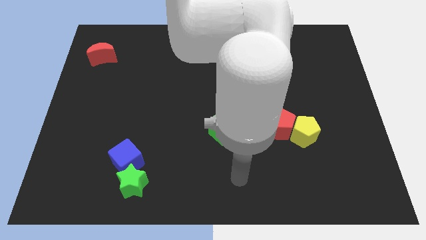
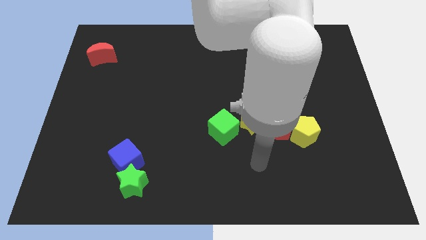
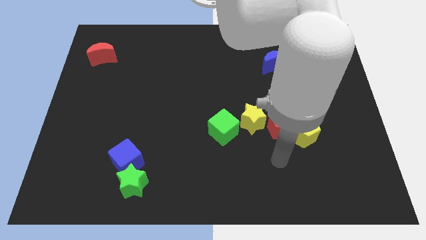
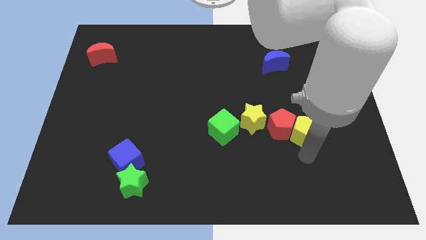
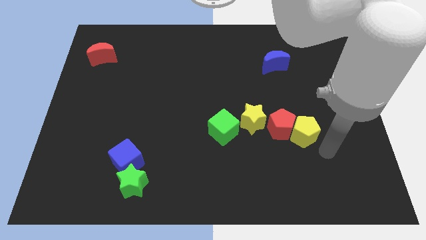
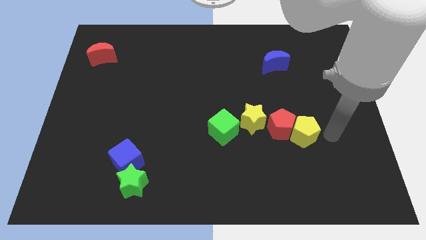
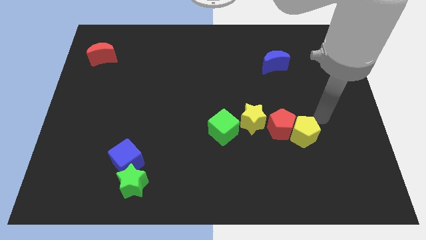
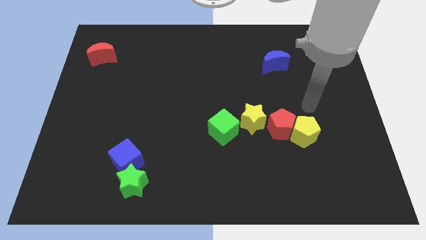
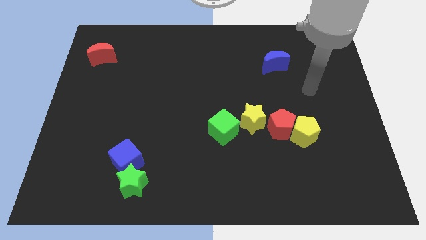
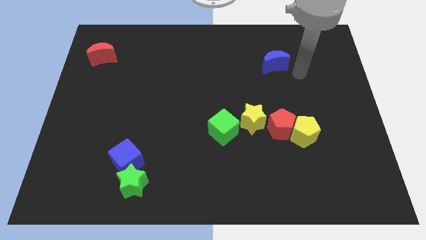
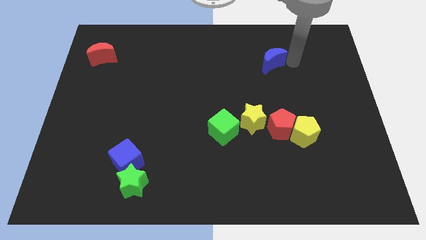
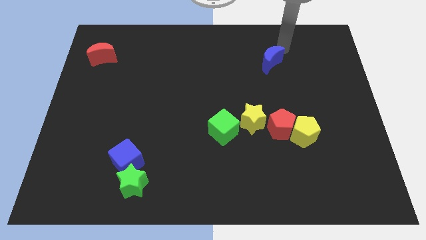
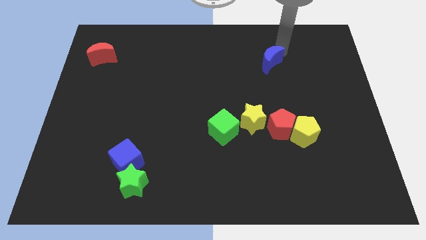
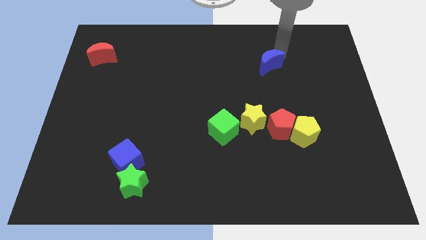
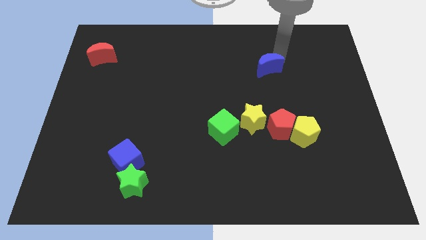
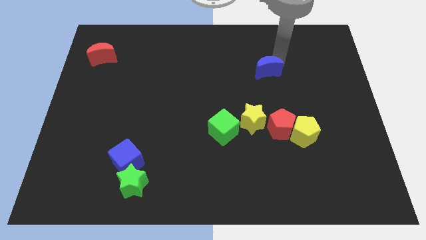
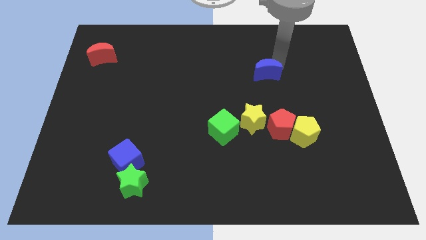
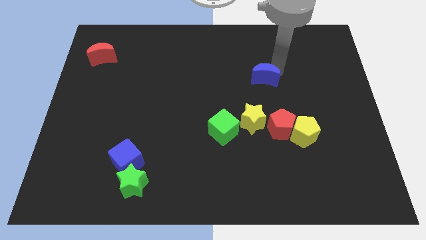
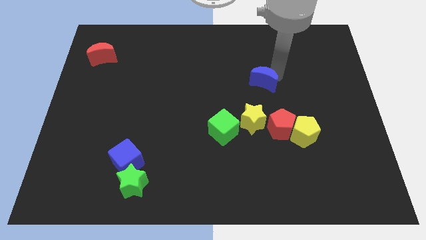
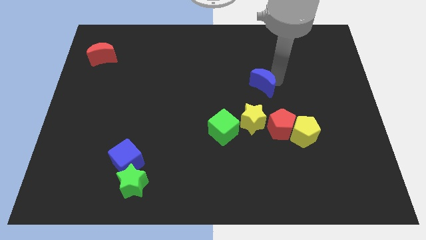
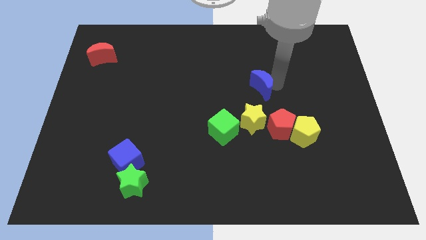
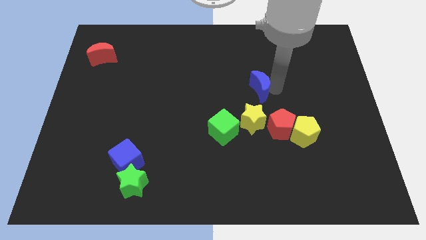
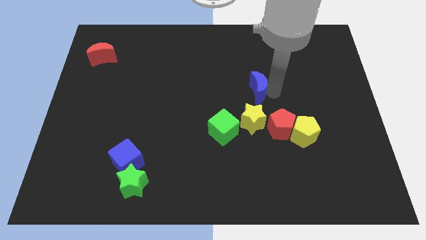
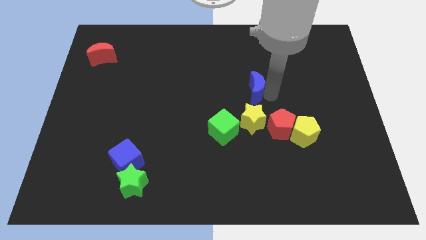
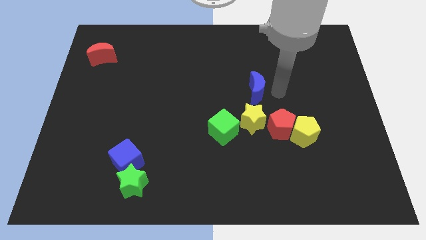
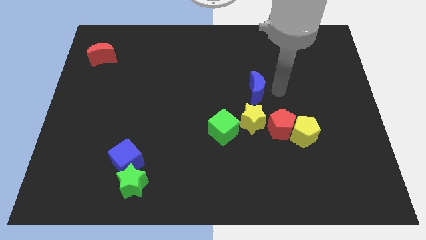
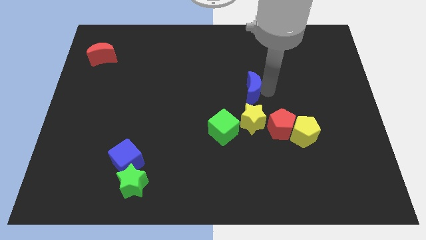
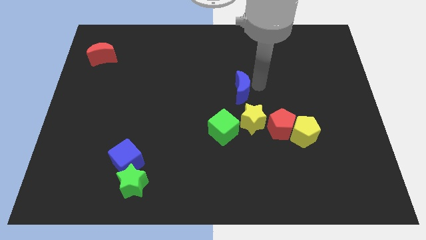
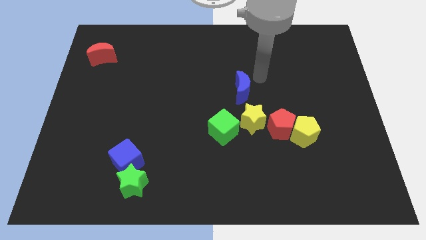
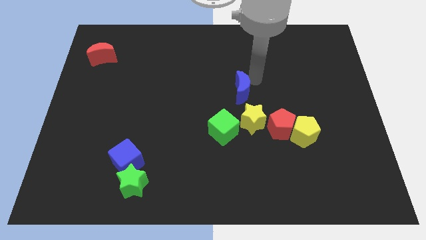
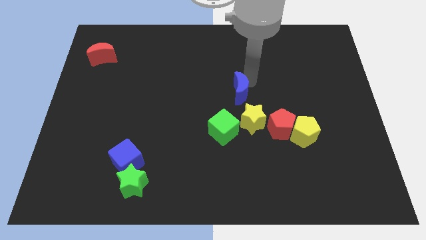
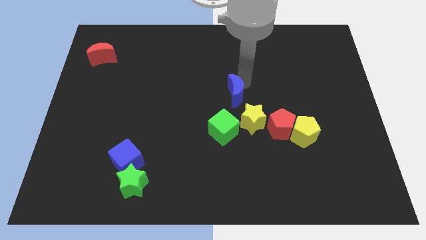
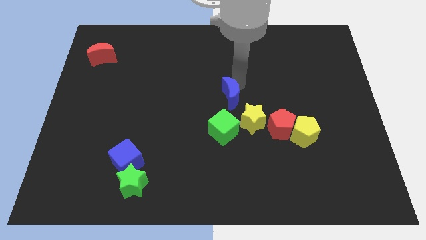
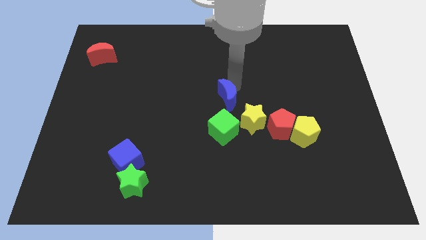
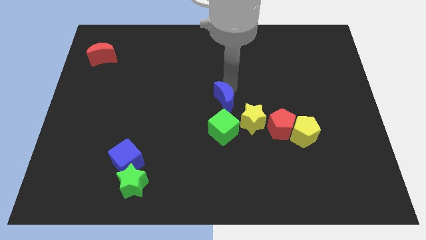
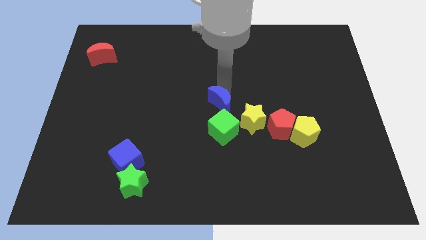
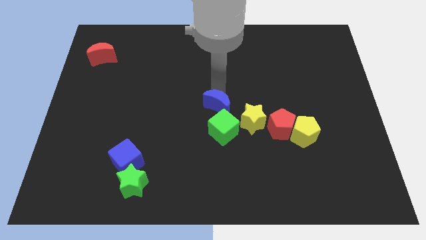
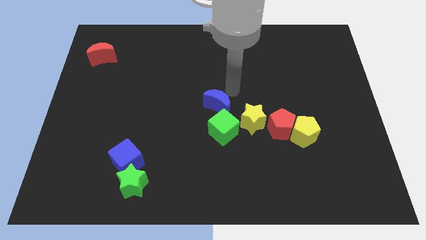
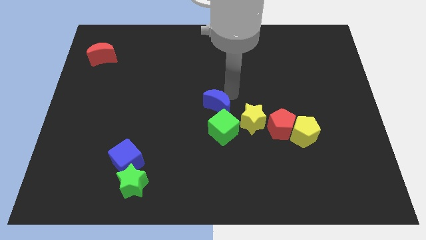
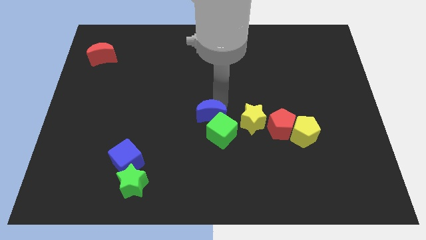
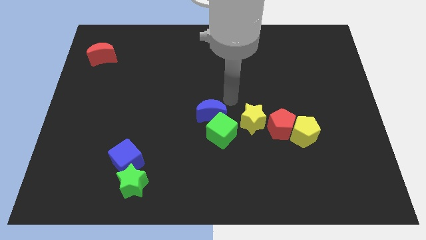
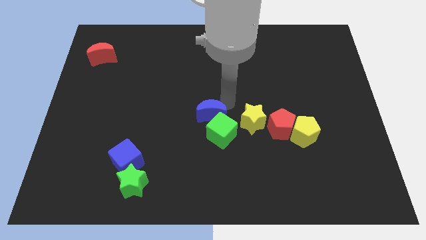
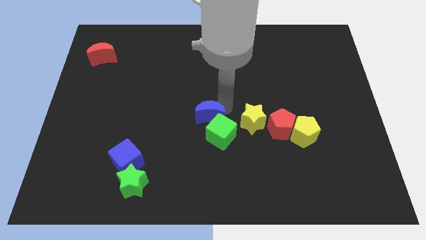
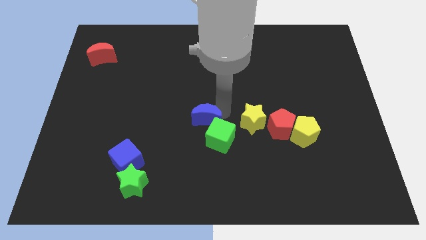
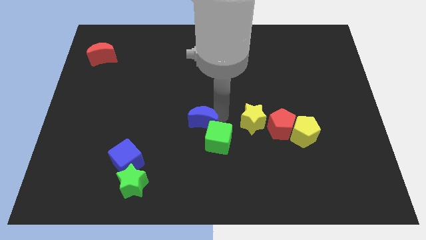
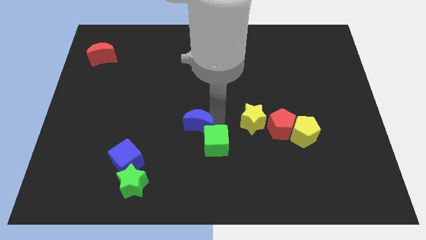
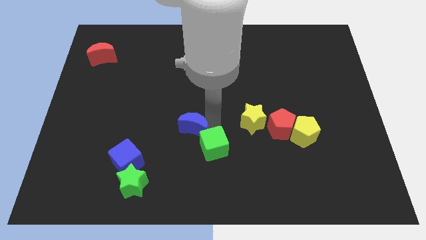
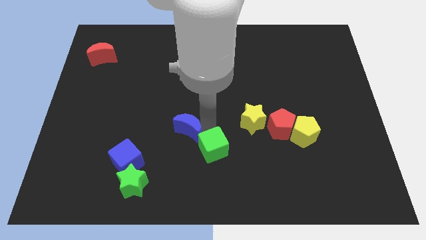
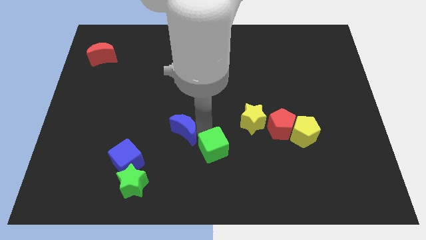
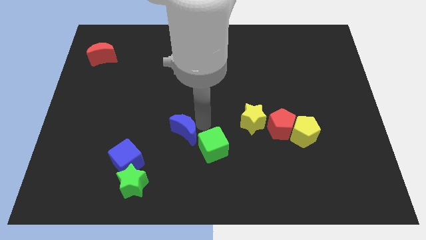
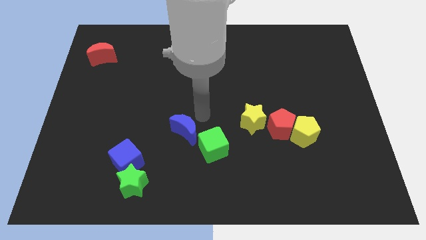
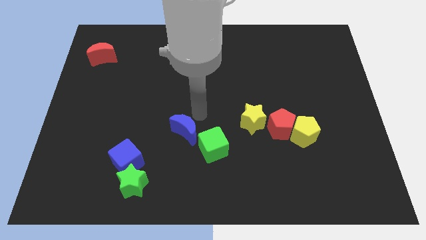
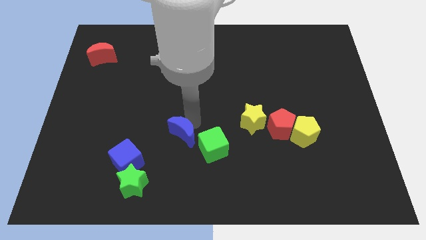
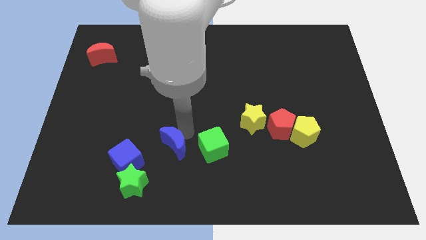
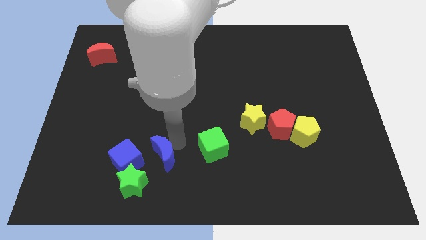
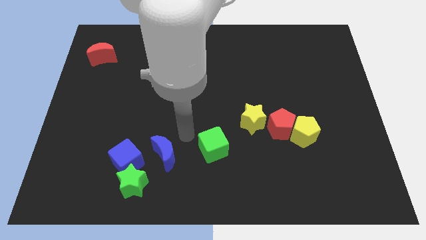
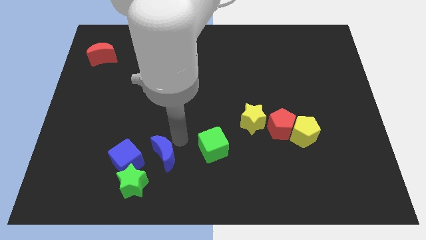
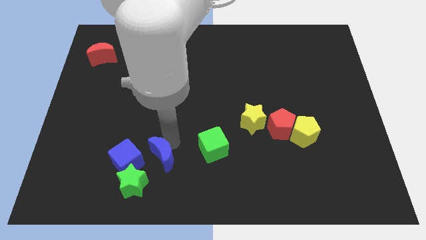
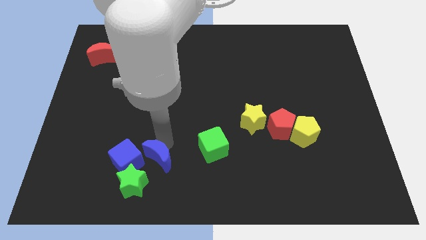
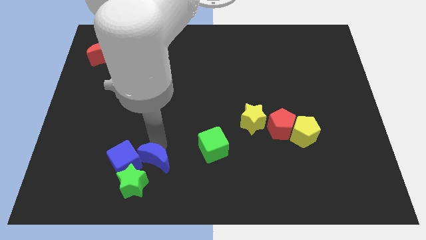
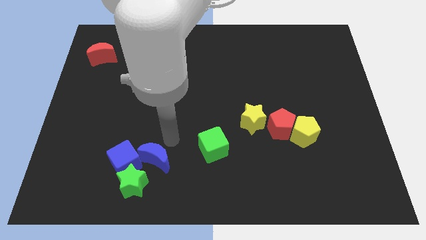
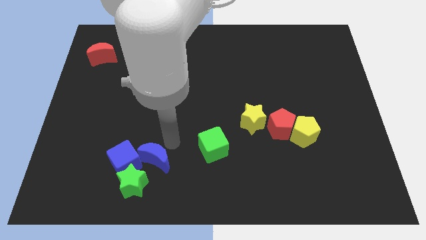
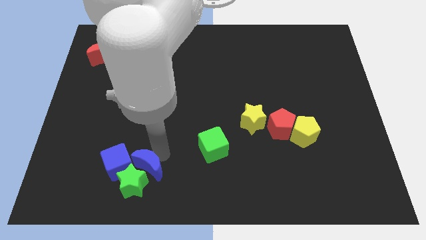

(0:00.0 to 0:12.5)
slide the blue moon close to the green star

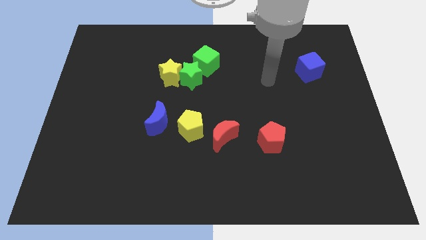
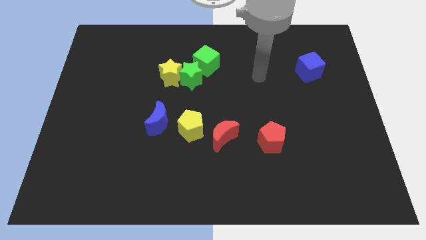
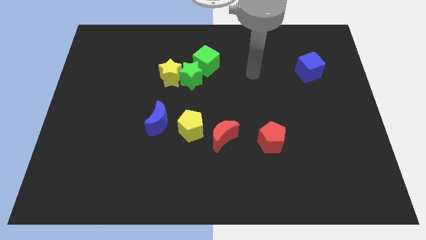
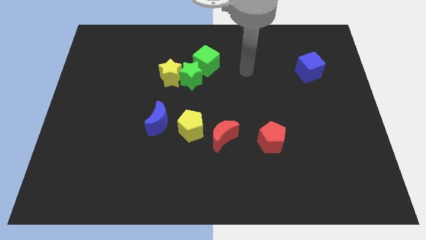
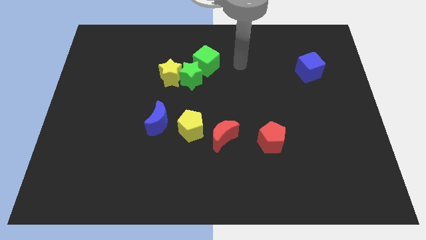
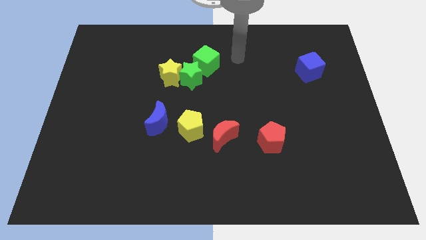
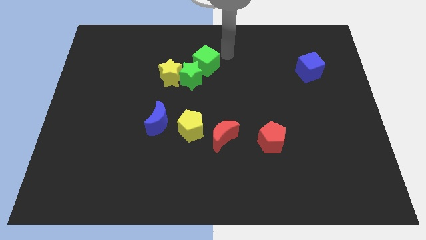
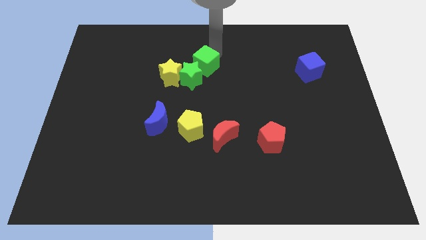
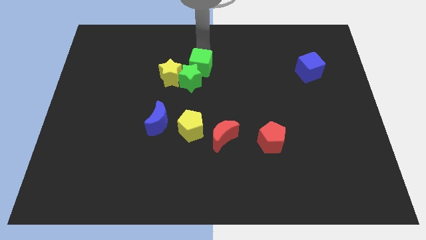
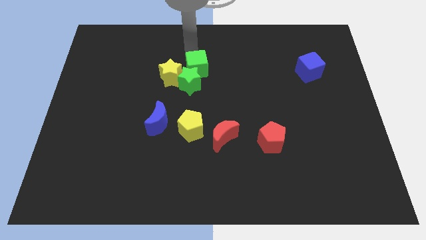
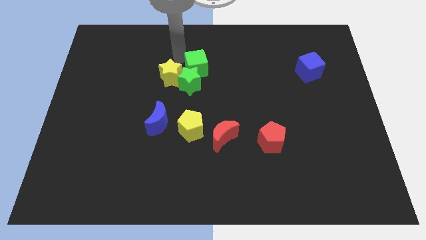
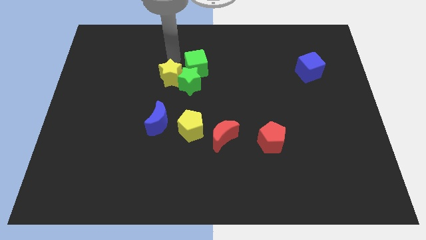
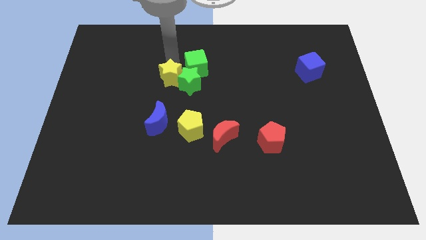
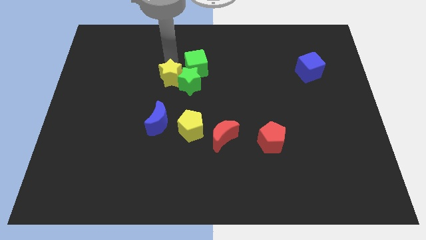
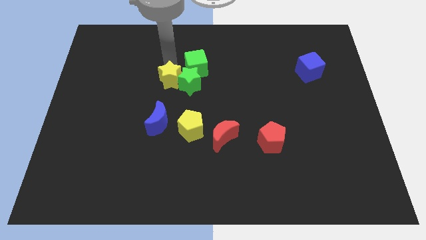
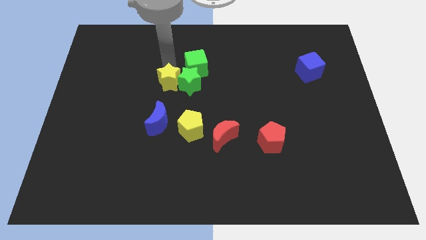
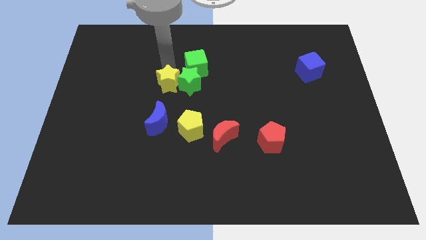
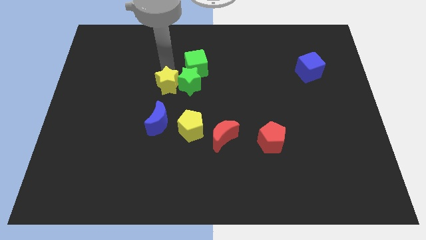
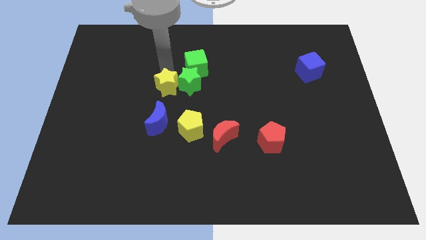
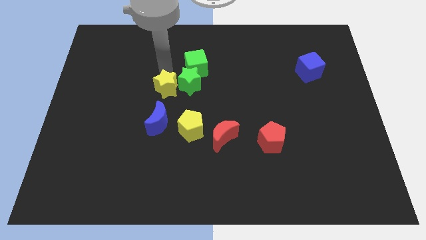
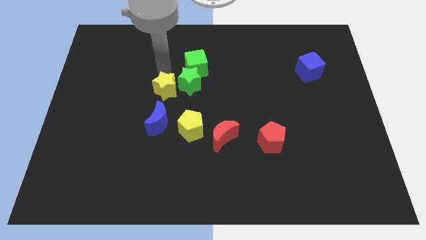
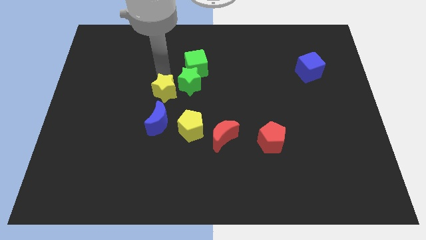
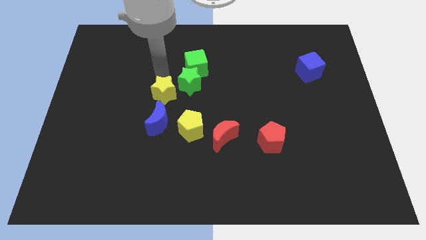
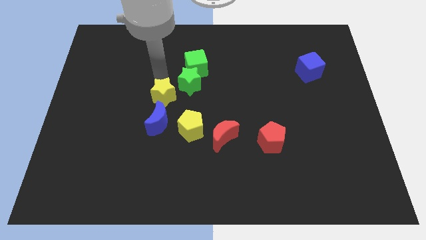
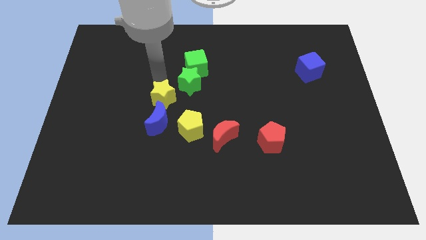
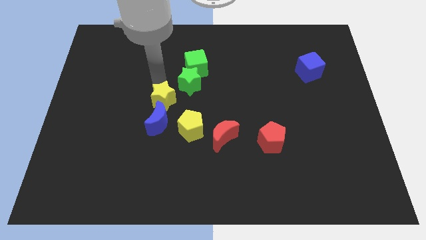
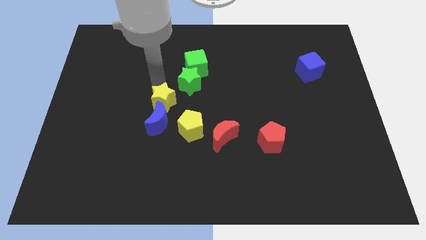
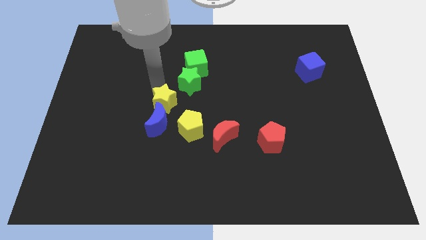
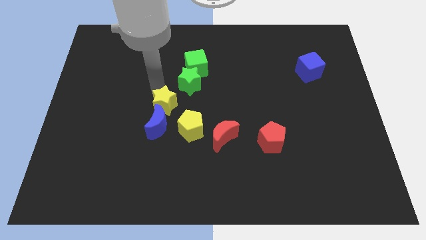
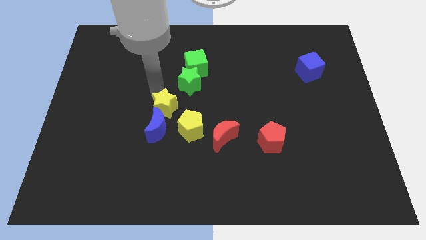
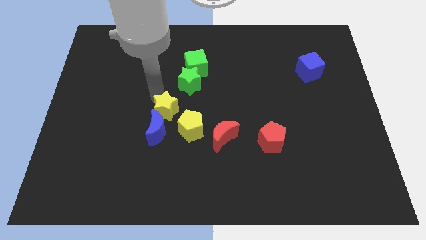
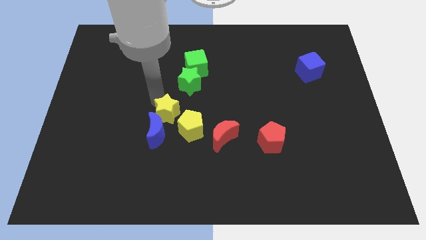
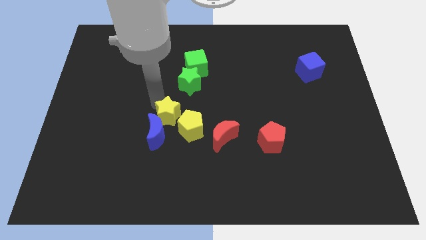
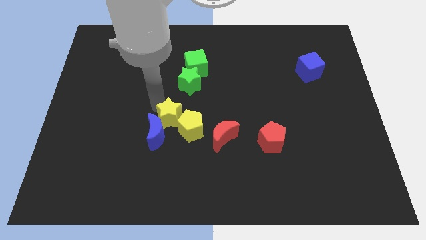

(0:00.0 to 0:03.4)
slide the yellow star close to the yellow pentagon
